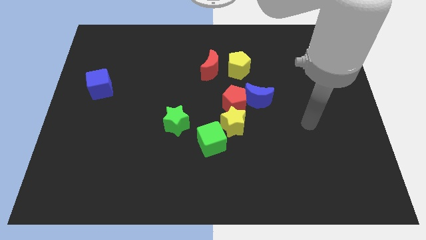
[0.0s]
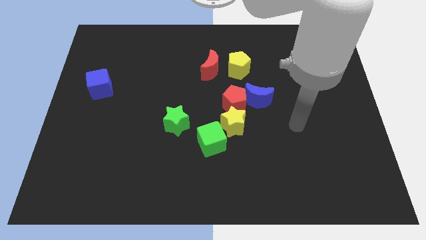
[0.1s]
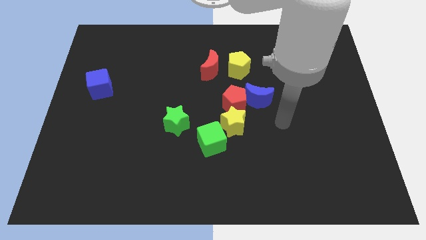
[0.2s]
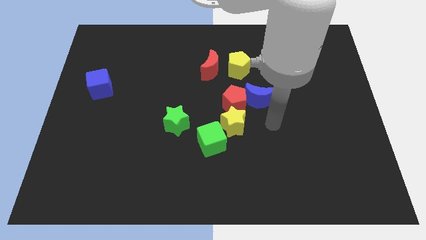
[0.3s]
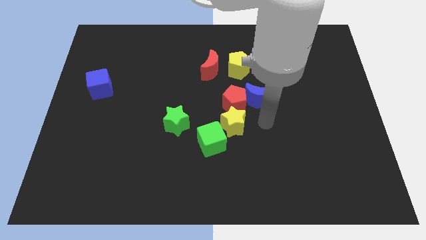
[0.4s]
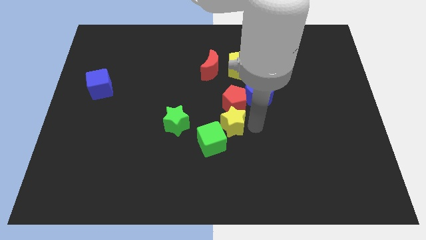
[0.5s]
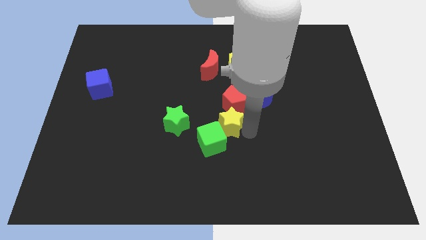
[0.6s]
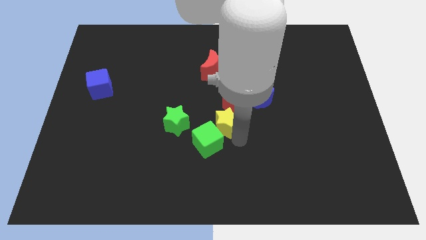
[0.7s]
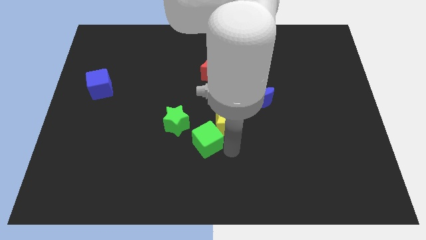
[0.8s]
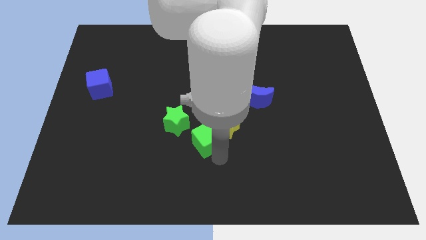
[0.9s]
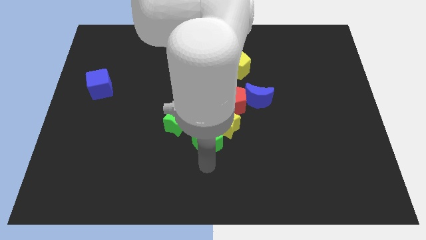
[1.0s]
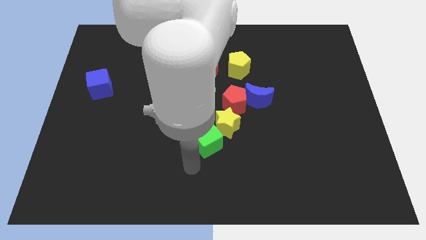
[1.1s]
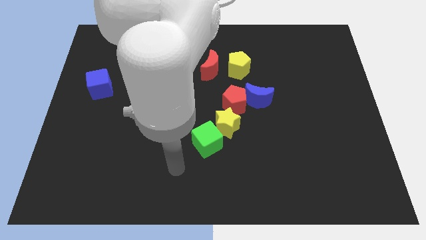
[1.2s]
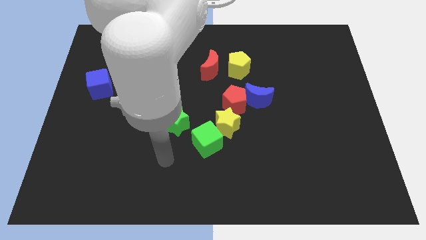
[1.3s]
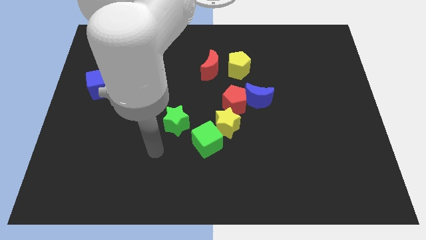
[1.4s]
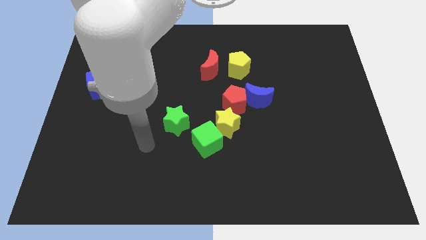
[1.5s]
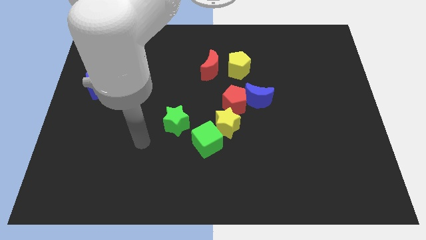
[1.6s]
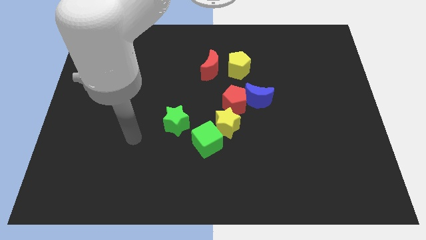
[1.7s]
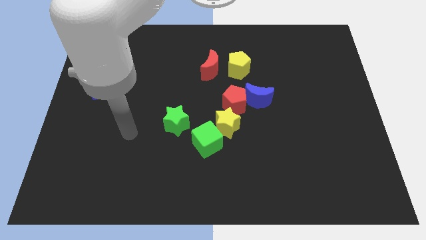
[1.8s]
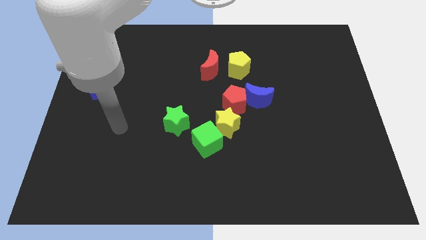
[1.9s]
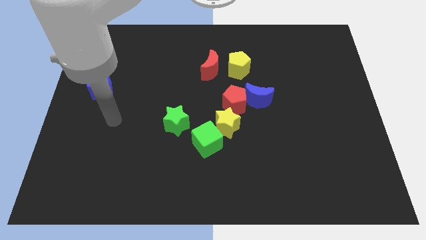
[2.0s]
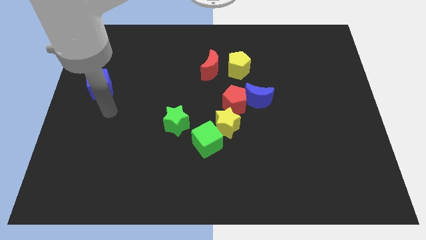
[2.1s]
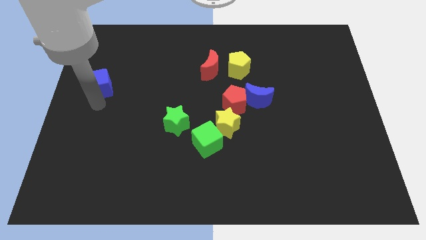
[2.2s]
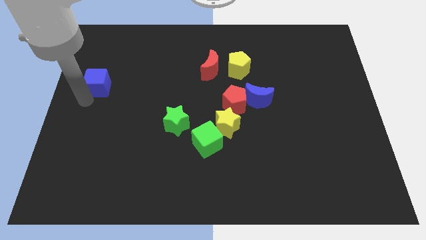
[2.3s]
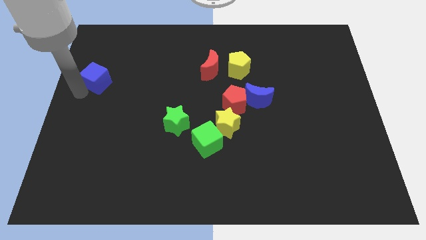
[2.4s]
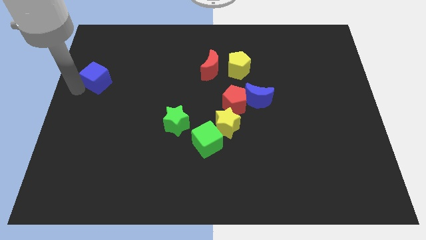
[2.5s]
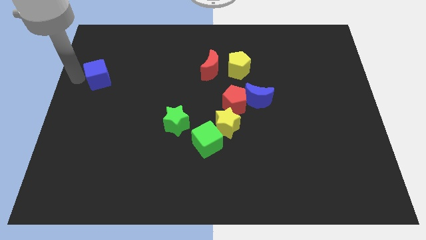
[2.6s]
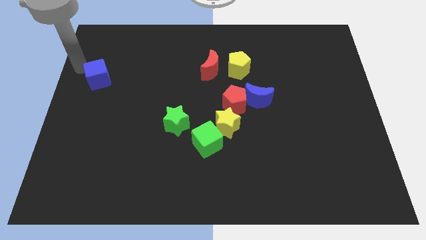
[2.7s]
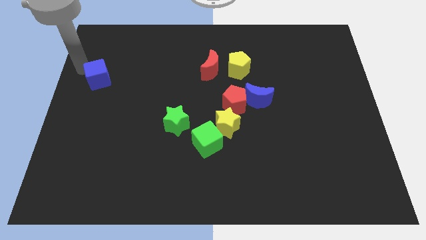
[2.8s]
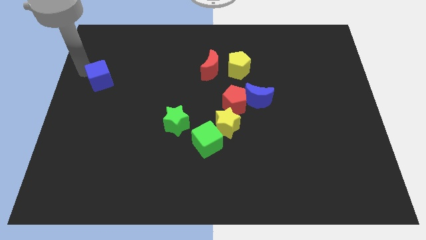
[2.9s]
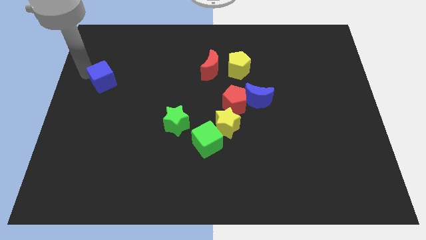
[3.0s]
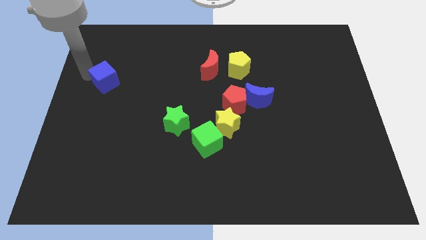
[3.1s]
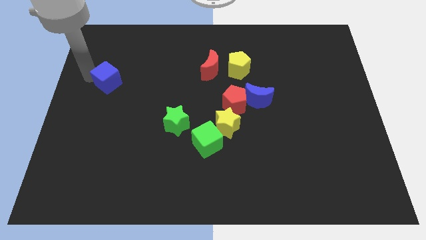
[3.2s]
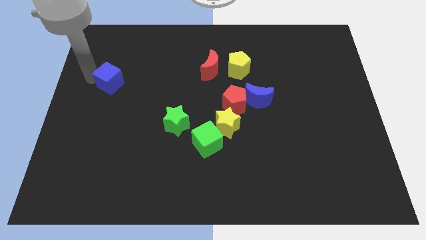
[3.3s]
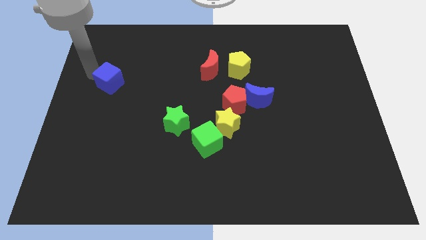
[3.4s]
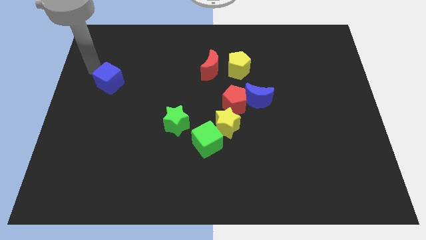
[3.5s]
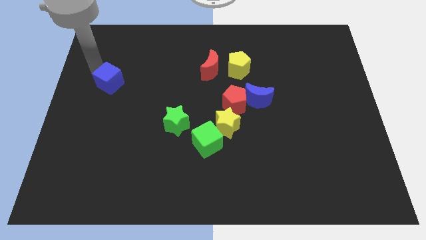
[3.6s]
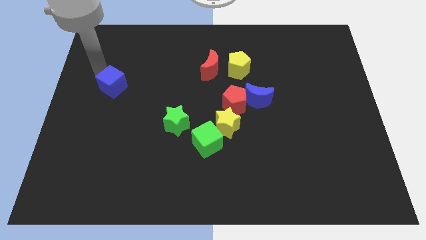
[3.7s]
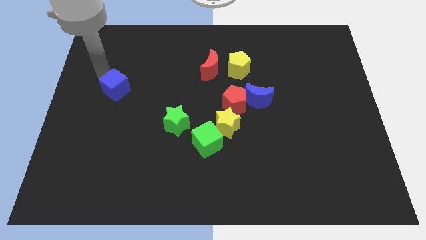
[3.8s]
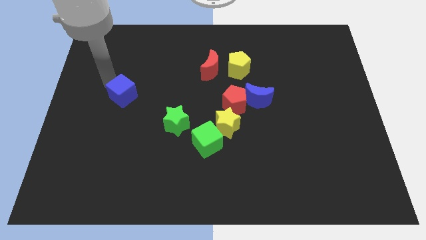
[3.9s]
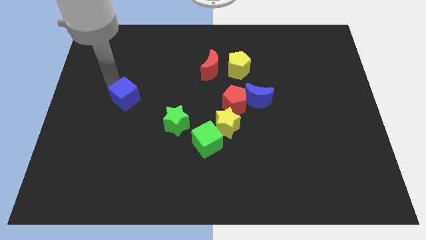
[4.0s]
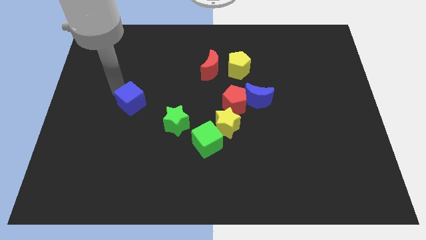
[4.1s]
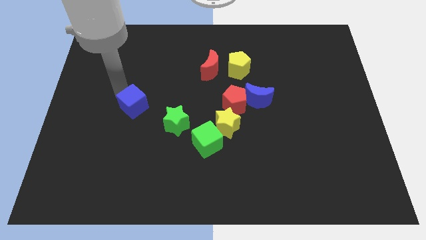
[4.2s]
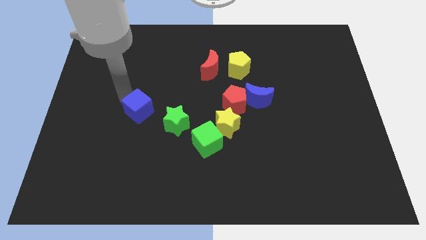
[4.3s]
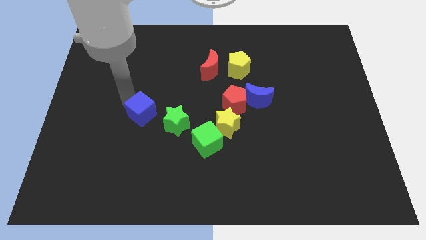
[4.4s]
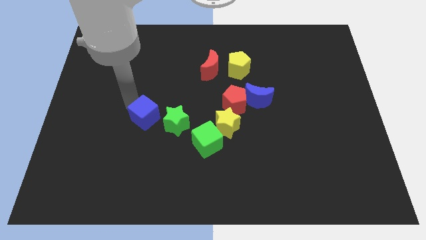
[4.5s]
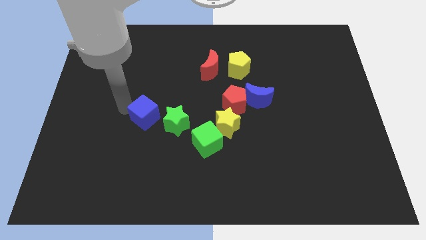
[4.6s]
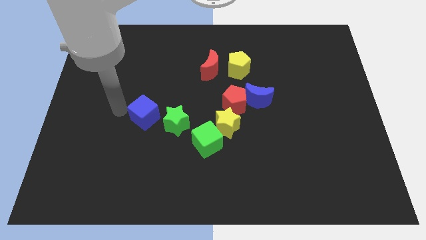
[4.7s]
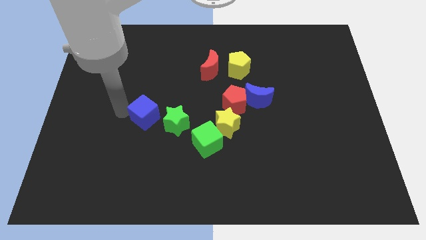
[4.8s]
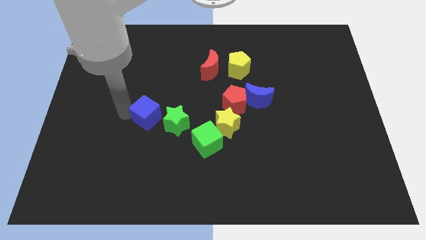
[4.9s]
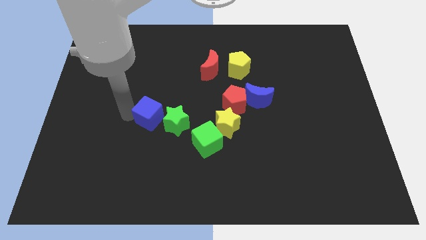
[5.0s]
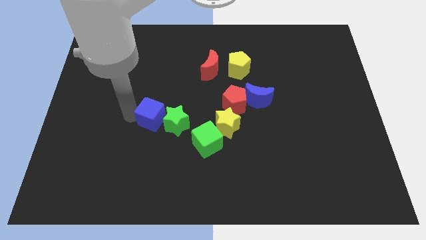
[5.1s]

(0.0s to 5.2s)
move the blue cube to the green star

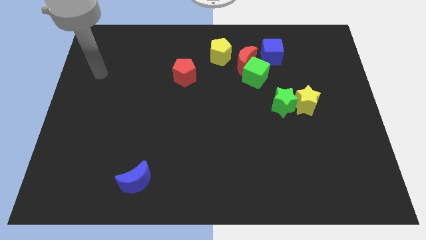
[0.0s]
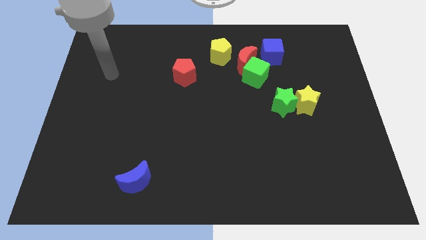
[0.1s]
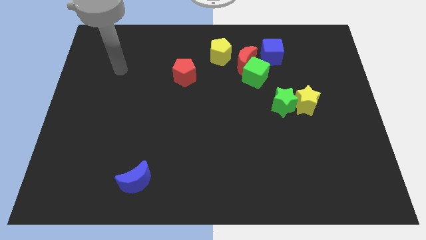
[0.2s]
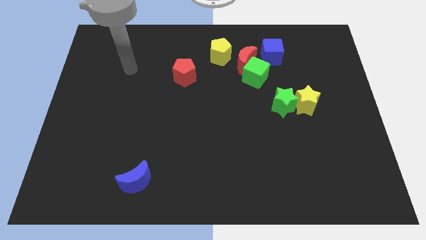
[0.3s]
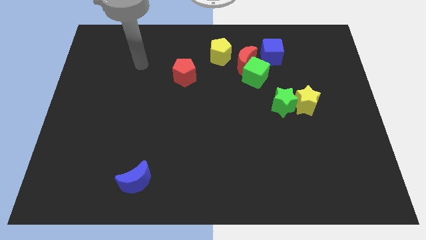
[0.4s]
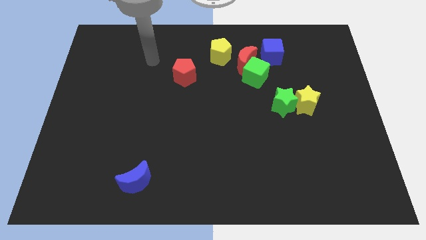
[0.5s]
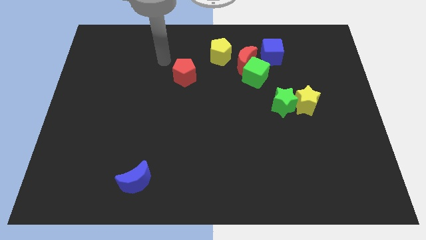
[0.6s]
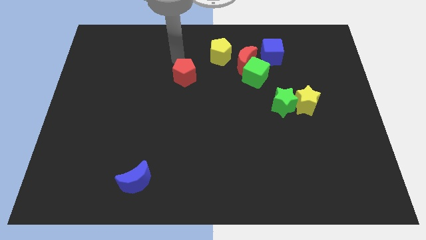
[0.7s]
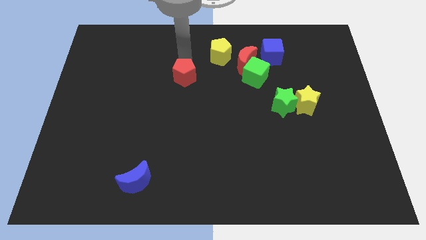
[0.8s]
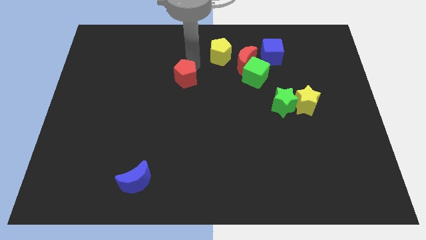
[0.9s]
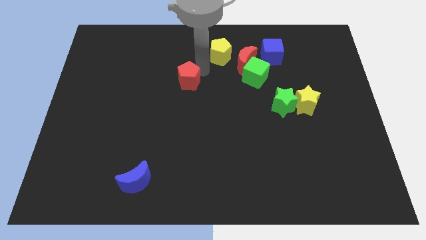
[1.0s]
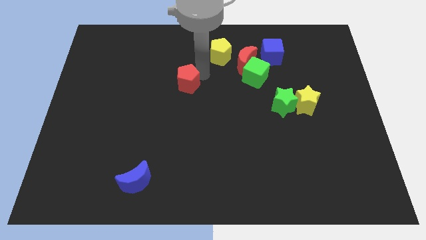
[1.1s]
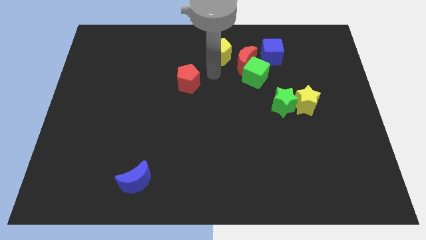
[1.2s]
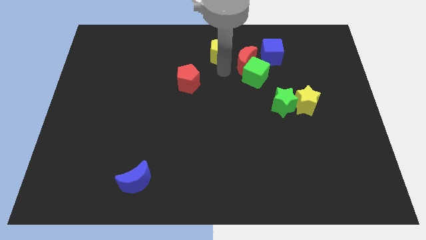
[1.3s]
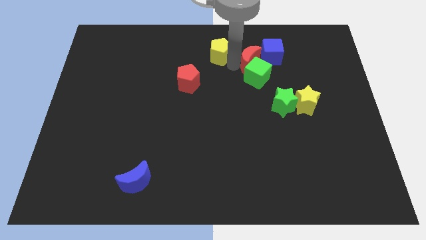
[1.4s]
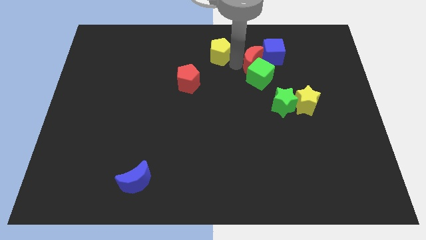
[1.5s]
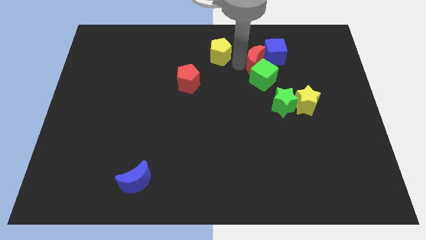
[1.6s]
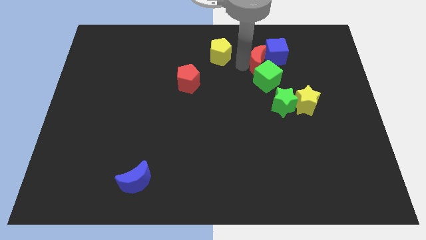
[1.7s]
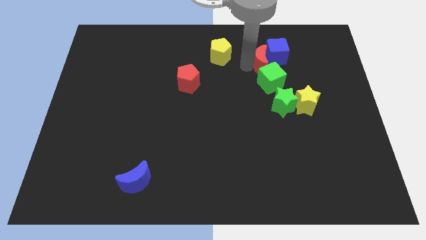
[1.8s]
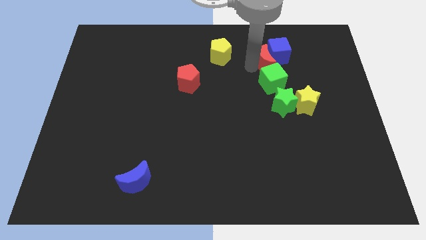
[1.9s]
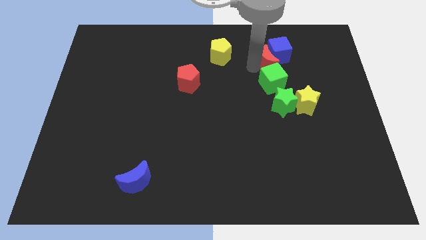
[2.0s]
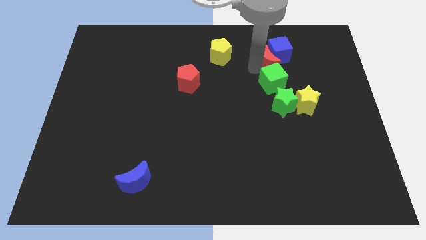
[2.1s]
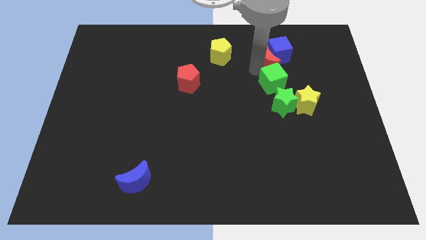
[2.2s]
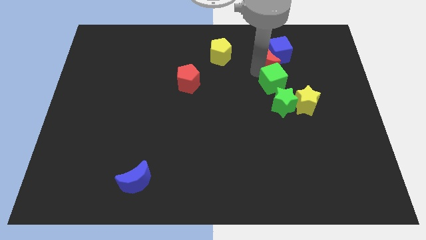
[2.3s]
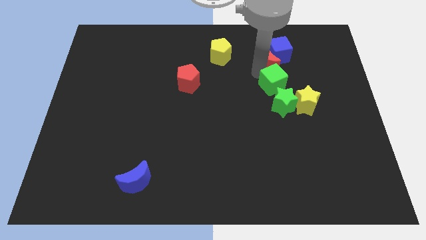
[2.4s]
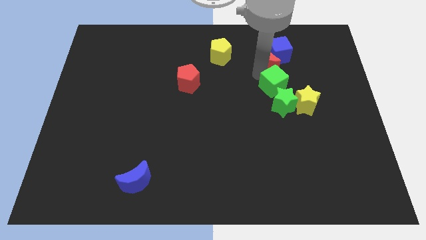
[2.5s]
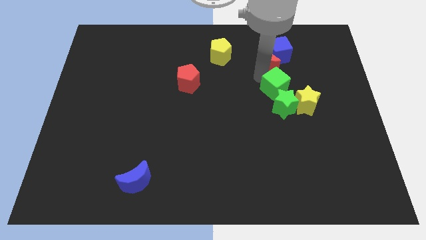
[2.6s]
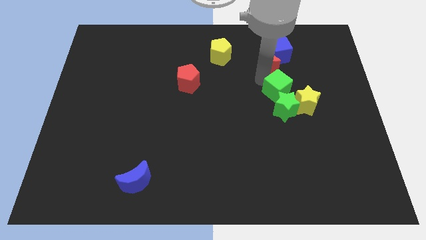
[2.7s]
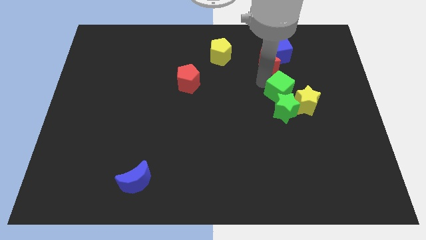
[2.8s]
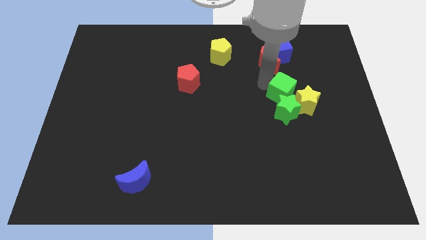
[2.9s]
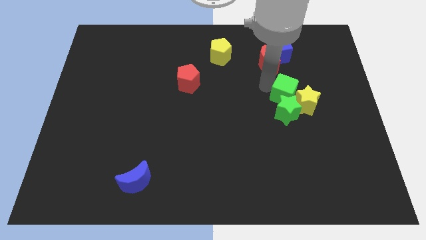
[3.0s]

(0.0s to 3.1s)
push the green cube to the yellow star
